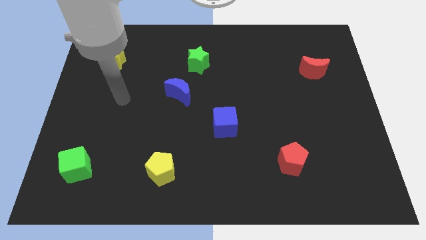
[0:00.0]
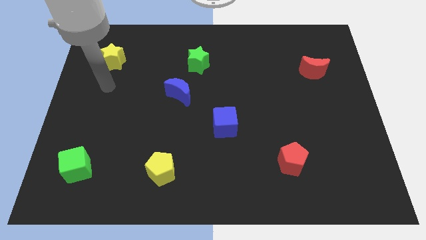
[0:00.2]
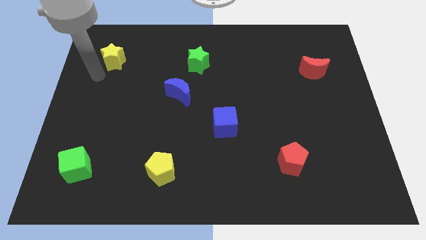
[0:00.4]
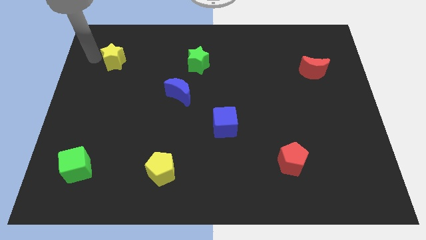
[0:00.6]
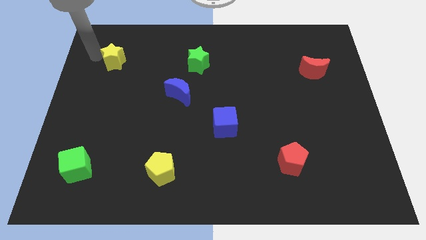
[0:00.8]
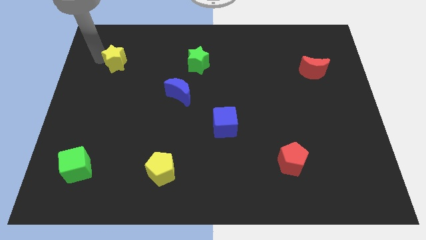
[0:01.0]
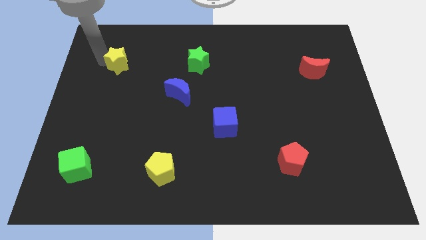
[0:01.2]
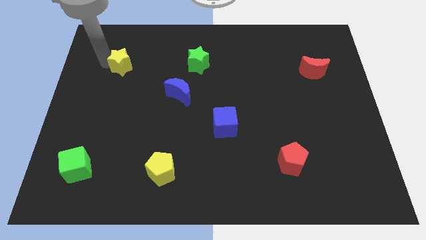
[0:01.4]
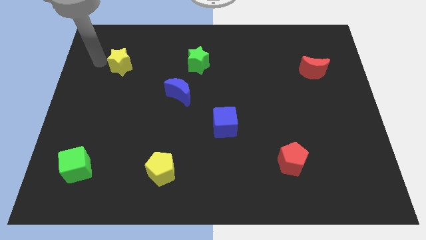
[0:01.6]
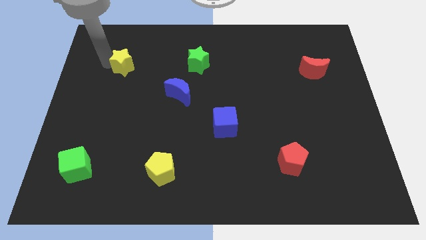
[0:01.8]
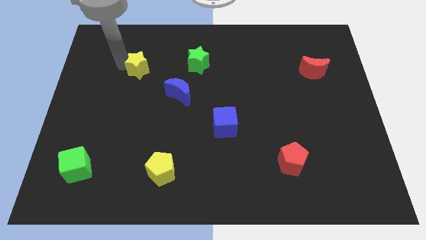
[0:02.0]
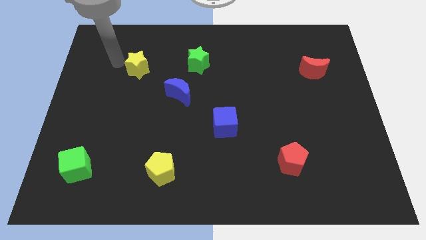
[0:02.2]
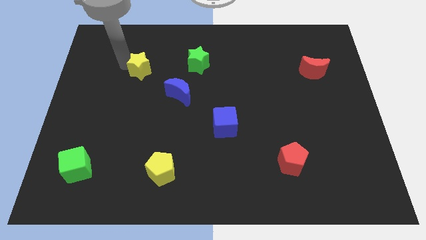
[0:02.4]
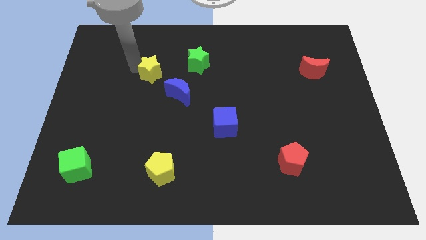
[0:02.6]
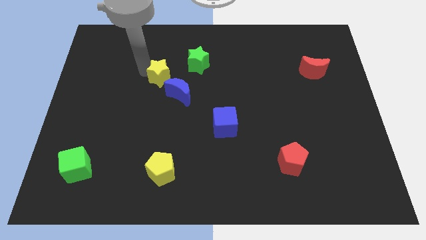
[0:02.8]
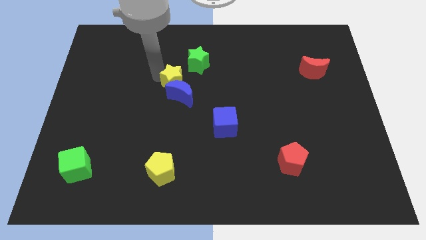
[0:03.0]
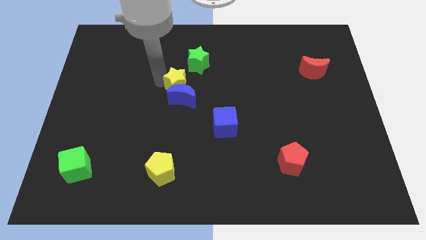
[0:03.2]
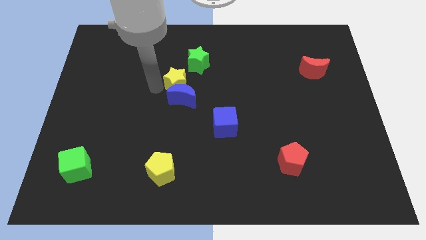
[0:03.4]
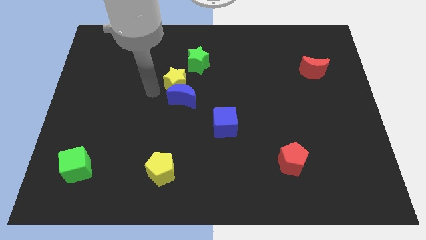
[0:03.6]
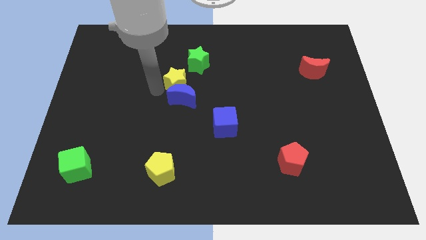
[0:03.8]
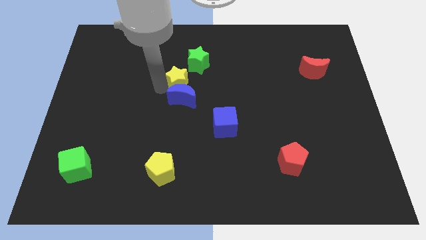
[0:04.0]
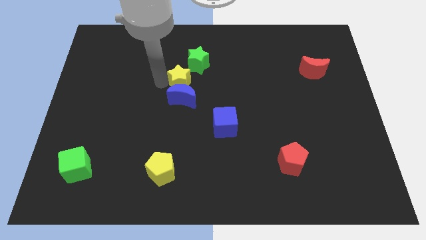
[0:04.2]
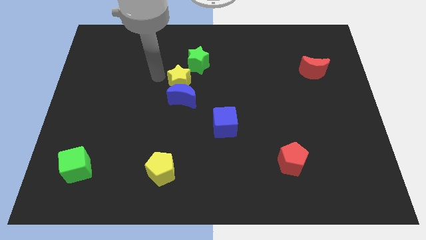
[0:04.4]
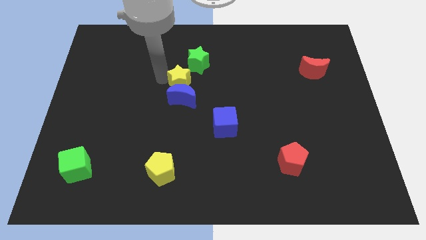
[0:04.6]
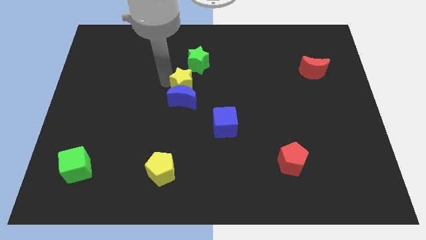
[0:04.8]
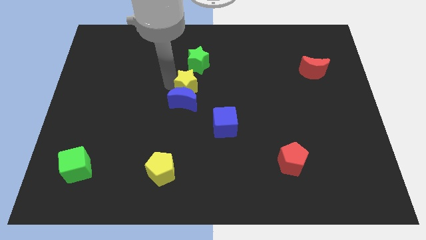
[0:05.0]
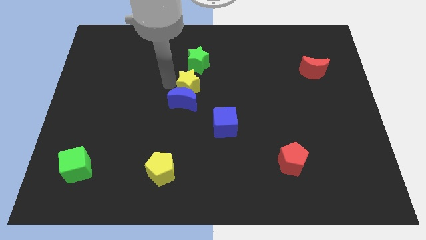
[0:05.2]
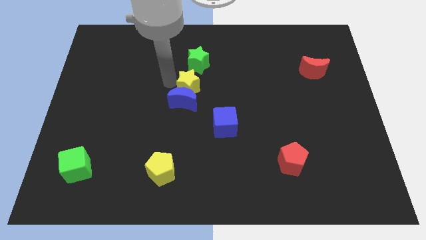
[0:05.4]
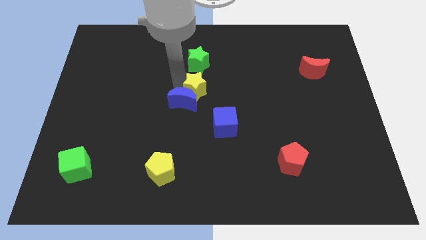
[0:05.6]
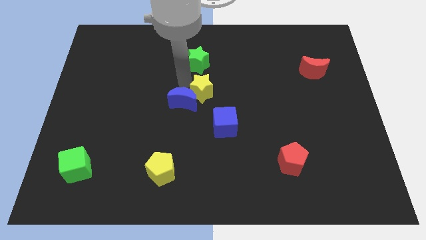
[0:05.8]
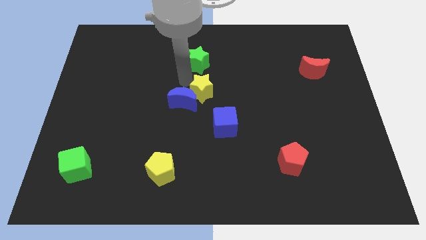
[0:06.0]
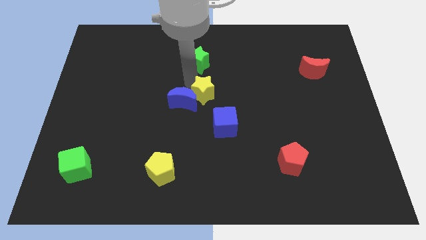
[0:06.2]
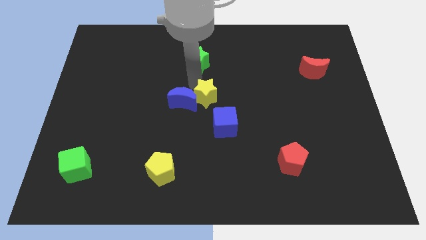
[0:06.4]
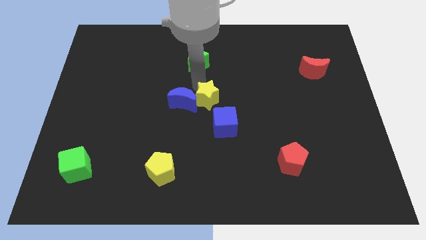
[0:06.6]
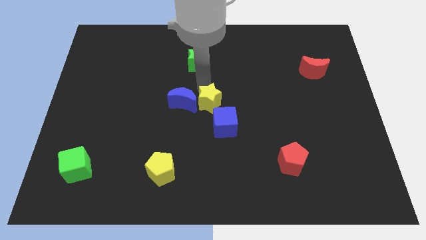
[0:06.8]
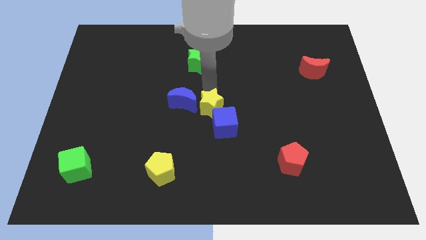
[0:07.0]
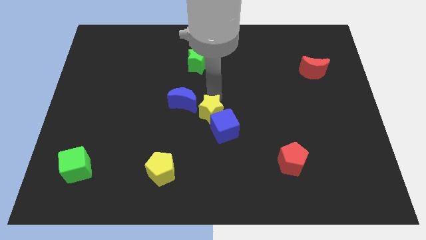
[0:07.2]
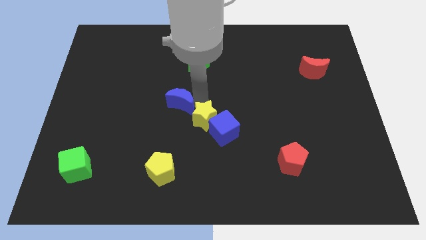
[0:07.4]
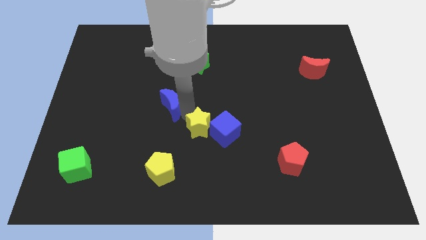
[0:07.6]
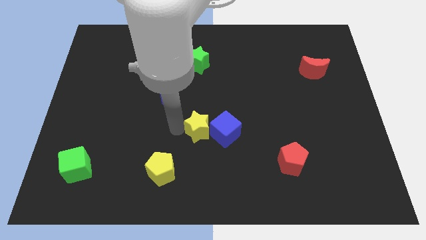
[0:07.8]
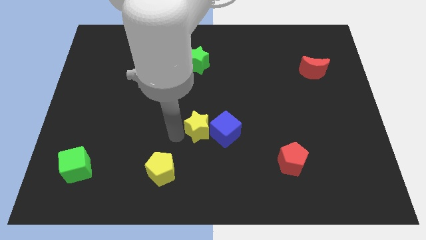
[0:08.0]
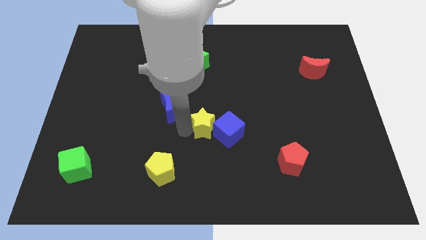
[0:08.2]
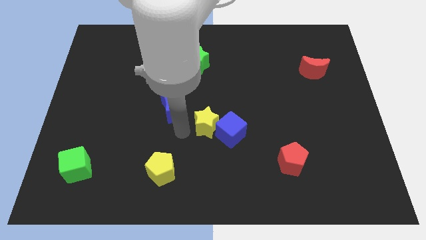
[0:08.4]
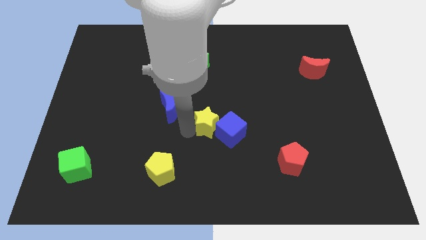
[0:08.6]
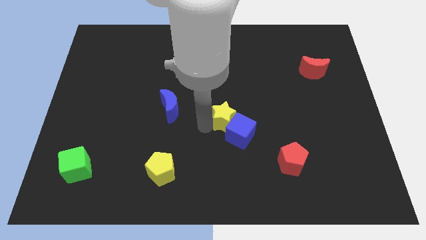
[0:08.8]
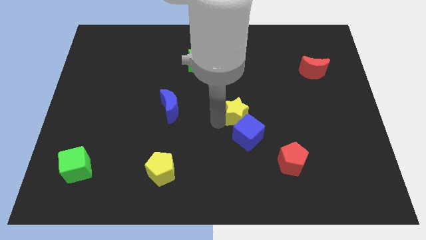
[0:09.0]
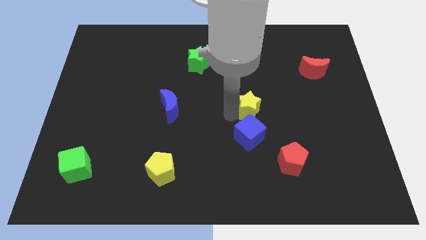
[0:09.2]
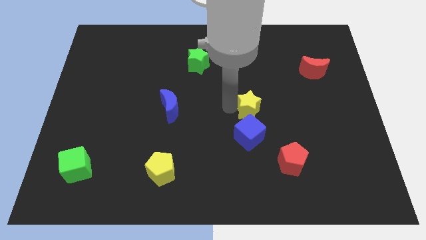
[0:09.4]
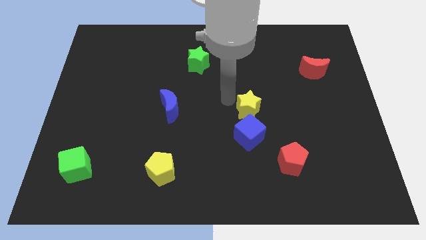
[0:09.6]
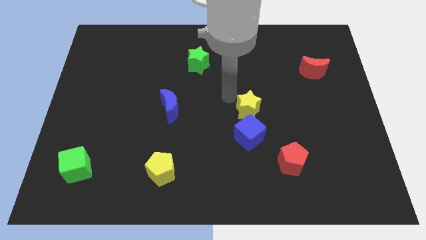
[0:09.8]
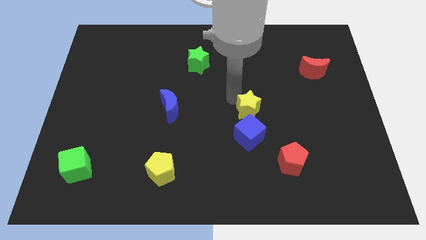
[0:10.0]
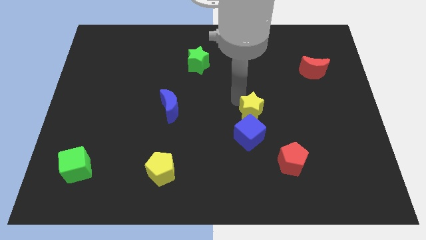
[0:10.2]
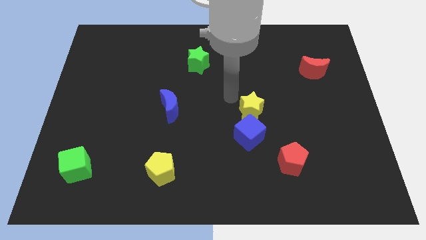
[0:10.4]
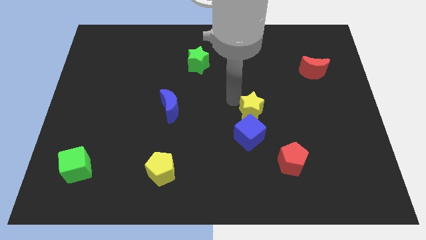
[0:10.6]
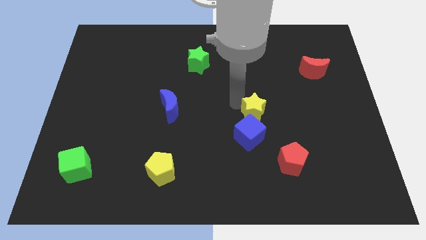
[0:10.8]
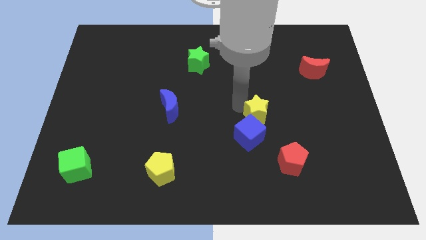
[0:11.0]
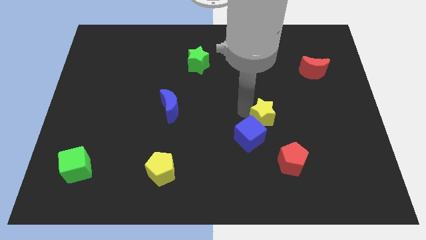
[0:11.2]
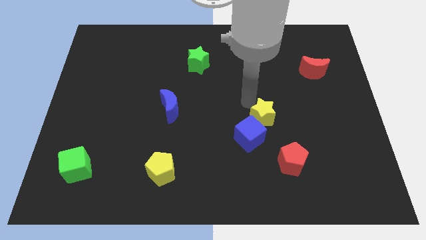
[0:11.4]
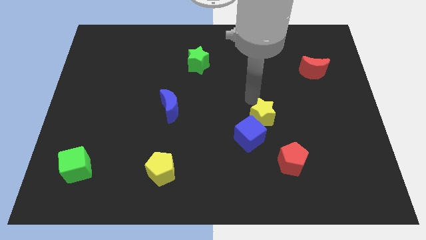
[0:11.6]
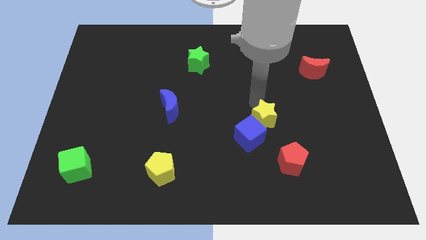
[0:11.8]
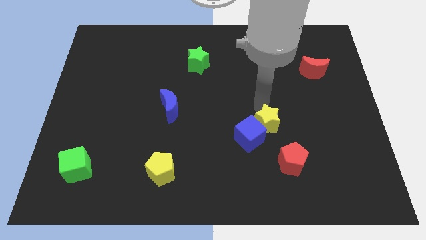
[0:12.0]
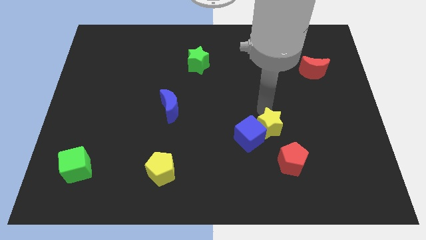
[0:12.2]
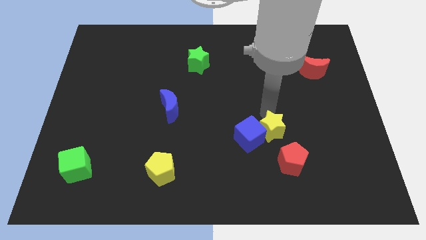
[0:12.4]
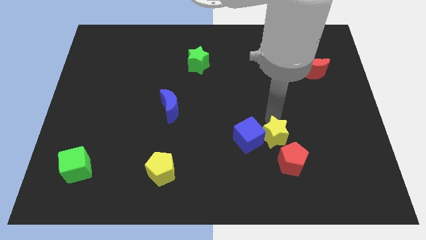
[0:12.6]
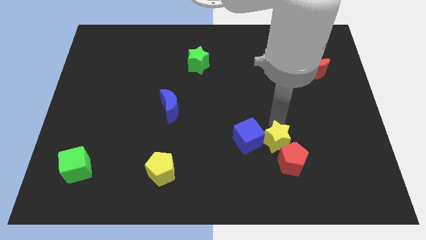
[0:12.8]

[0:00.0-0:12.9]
put the yellow star next to the red pentagon

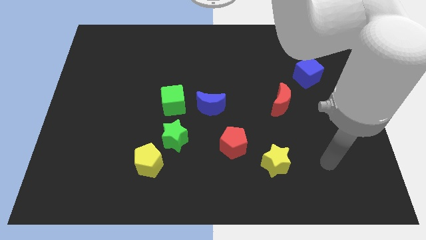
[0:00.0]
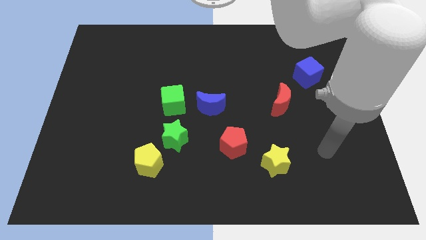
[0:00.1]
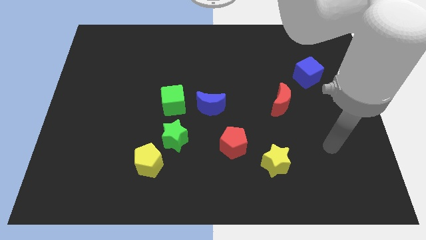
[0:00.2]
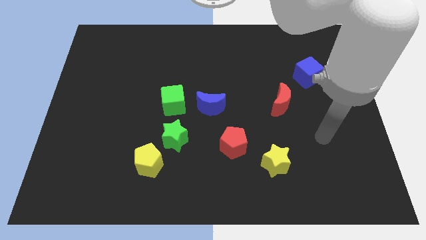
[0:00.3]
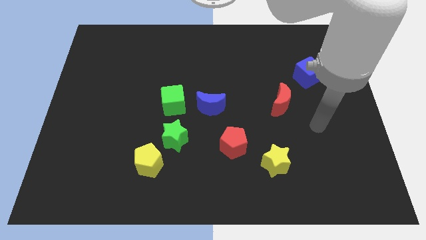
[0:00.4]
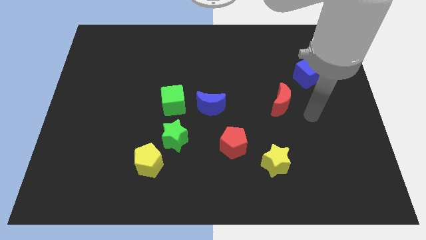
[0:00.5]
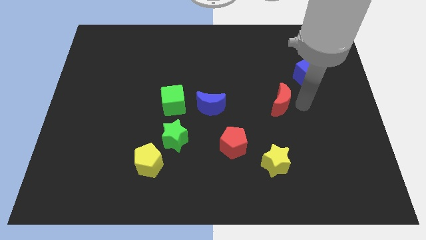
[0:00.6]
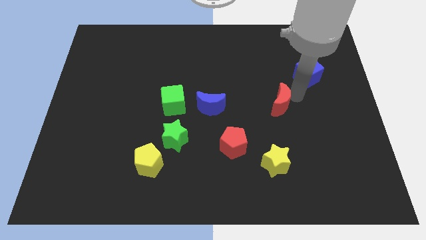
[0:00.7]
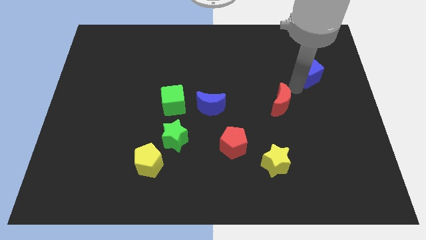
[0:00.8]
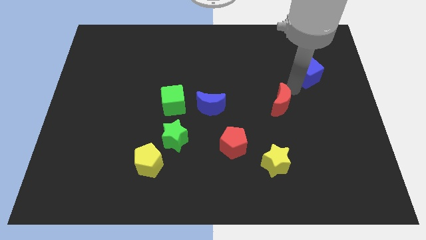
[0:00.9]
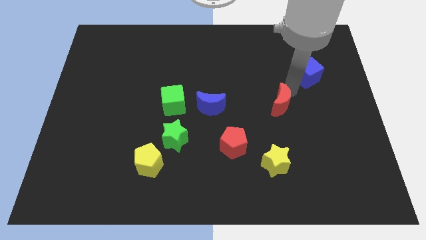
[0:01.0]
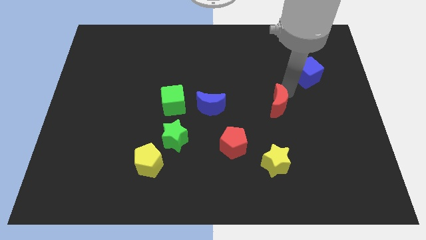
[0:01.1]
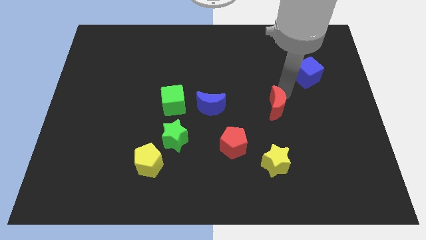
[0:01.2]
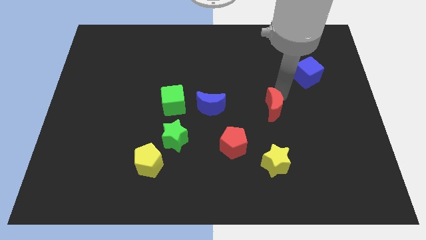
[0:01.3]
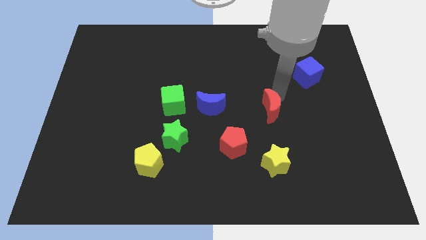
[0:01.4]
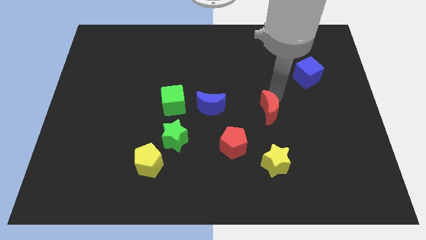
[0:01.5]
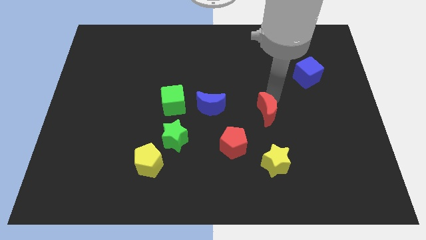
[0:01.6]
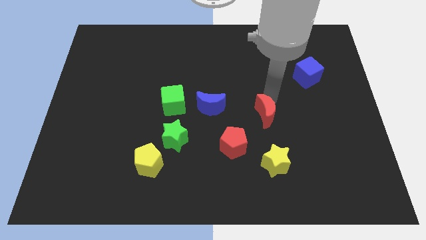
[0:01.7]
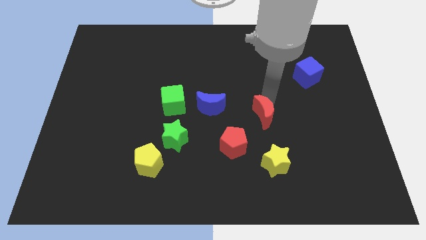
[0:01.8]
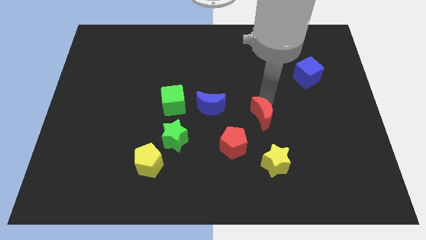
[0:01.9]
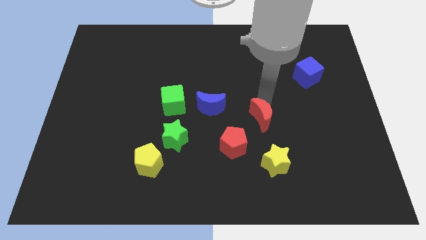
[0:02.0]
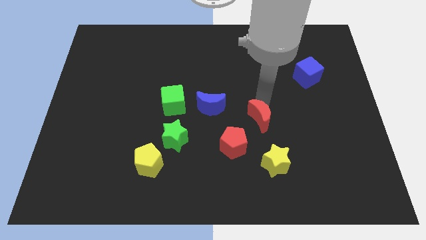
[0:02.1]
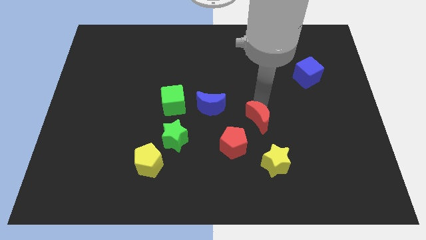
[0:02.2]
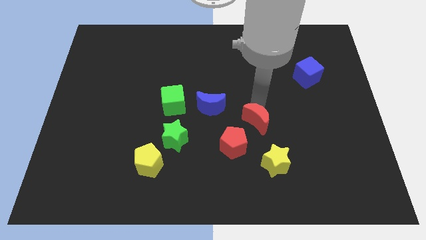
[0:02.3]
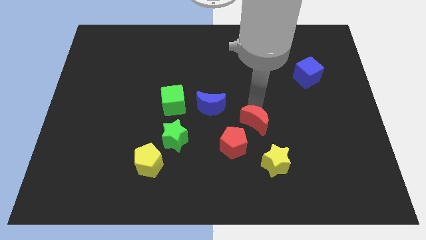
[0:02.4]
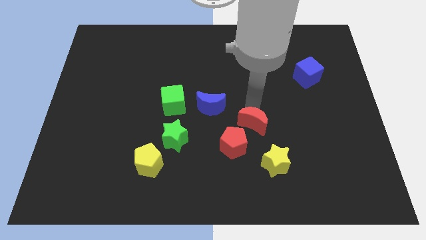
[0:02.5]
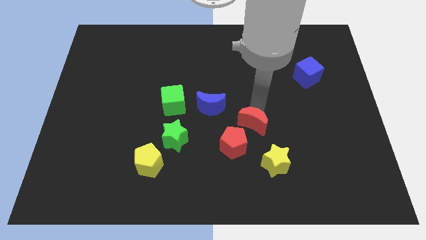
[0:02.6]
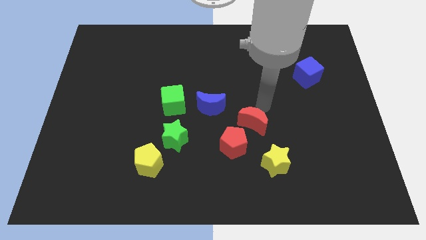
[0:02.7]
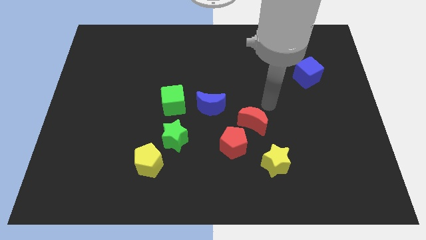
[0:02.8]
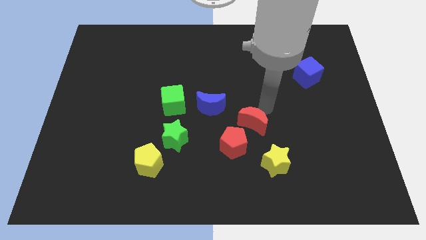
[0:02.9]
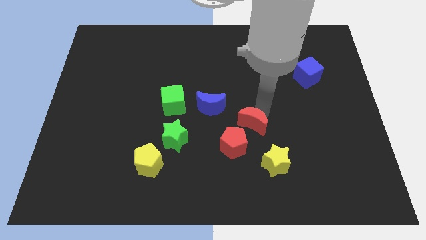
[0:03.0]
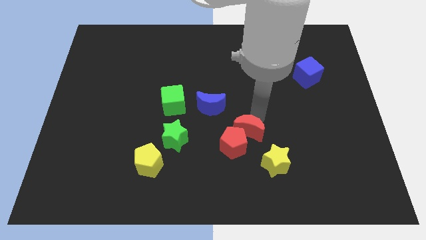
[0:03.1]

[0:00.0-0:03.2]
put the red moon to the red pentagon
